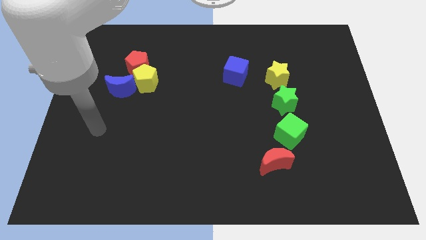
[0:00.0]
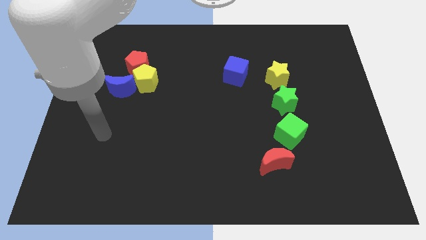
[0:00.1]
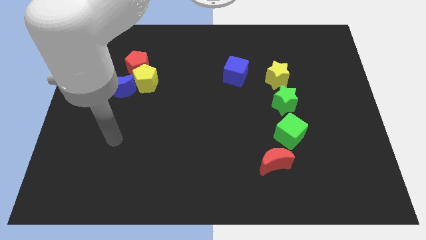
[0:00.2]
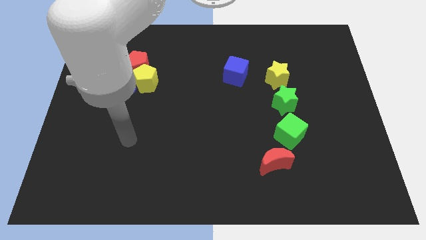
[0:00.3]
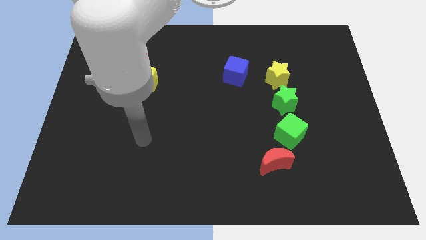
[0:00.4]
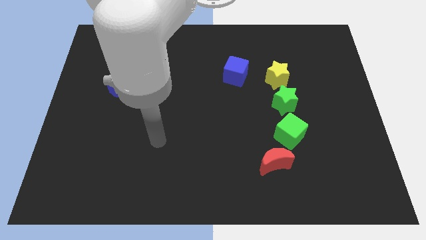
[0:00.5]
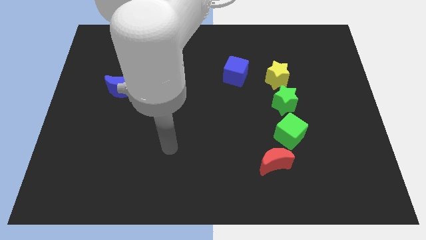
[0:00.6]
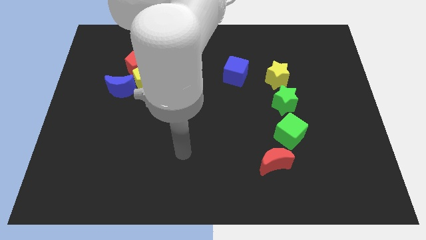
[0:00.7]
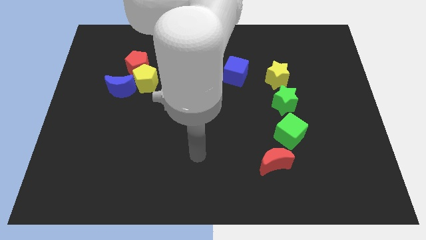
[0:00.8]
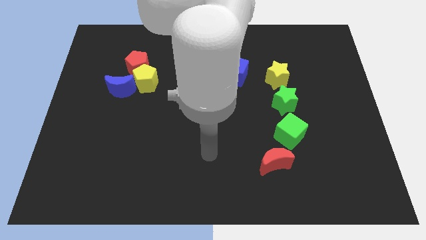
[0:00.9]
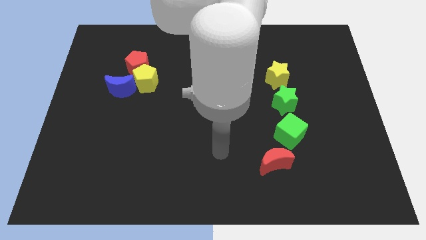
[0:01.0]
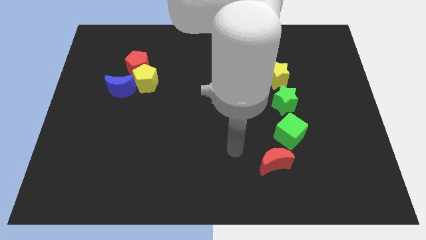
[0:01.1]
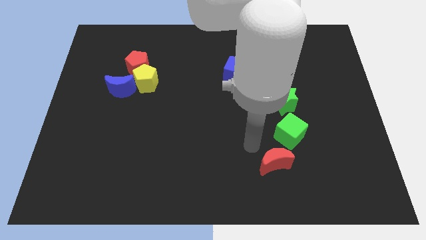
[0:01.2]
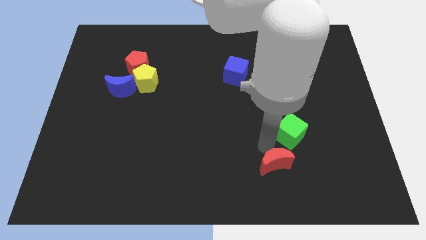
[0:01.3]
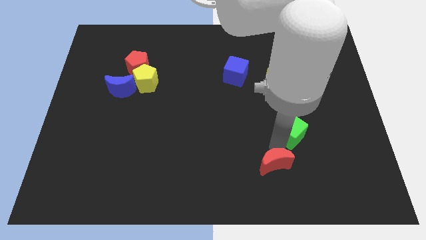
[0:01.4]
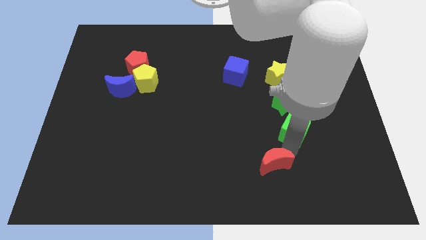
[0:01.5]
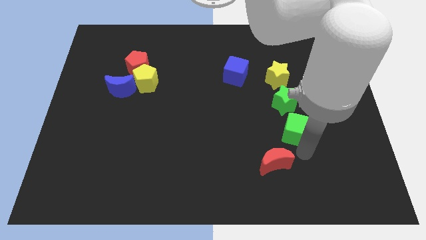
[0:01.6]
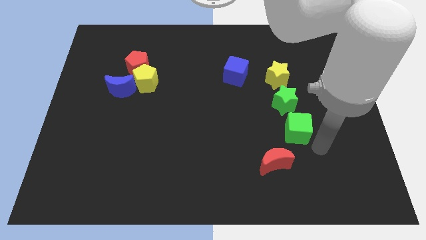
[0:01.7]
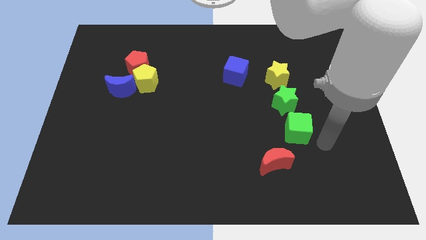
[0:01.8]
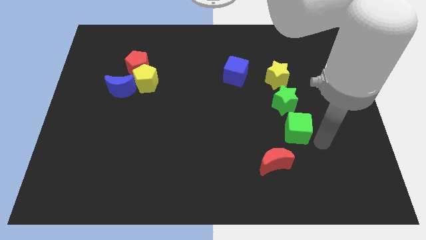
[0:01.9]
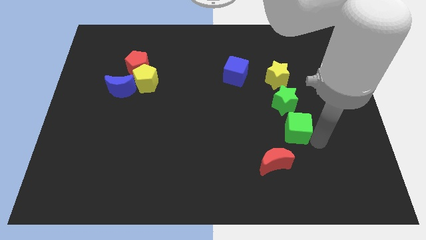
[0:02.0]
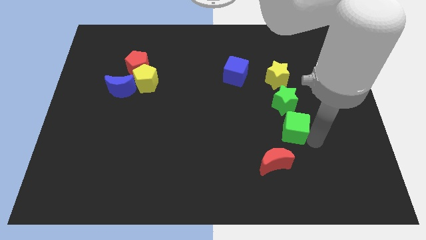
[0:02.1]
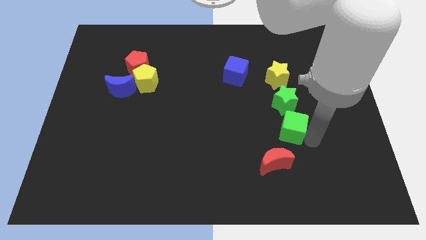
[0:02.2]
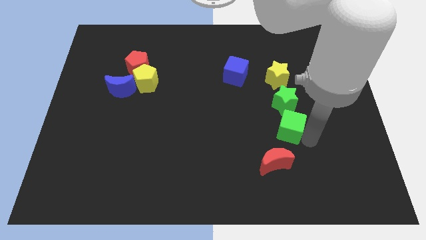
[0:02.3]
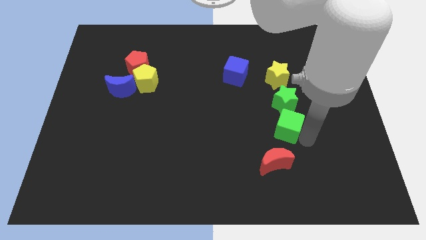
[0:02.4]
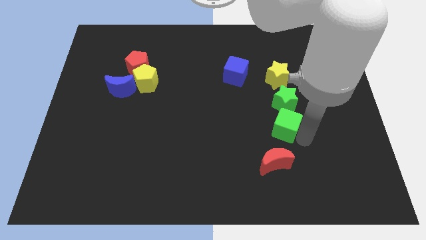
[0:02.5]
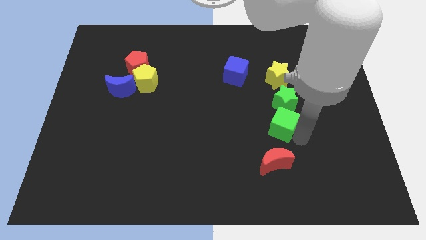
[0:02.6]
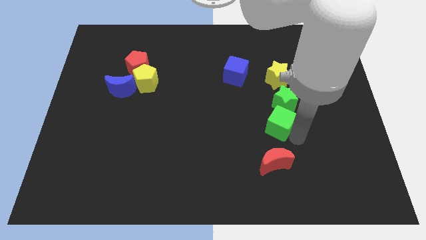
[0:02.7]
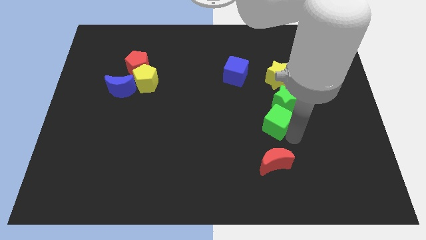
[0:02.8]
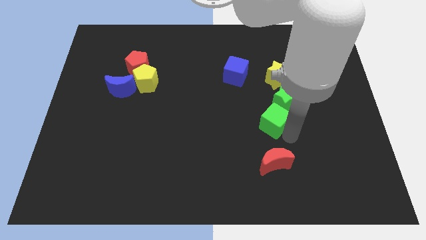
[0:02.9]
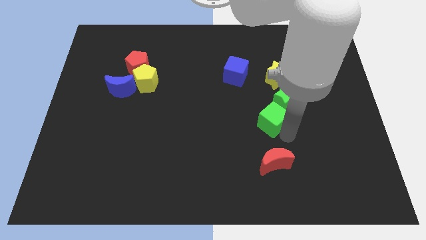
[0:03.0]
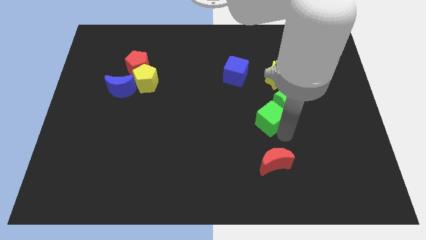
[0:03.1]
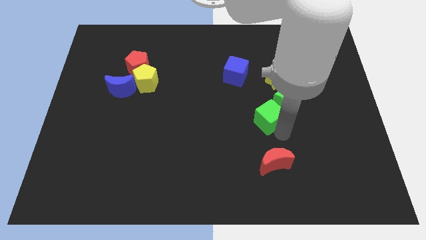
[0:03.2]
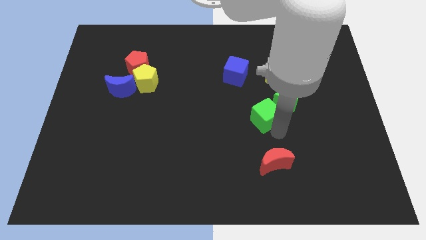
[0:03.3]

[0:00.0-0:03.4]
slightly slide the green cube diagonally upwards and left

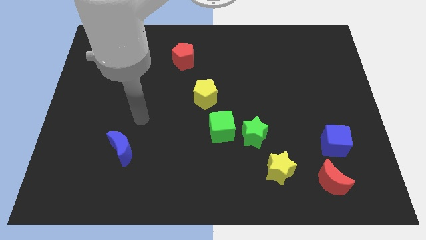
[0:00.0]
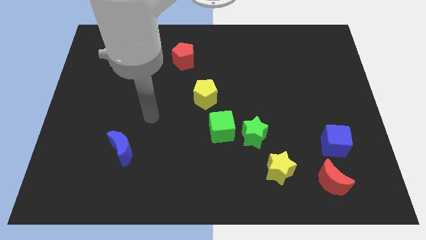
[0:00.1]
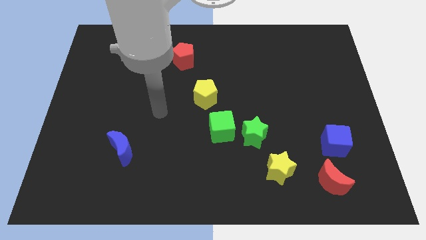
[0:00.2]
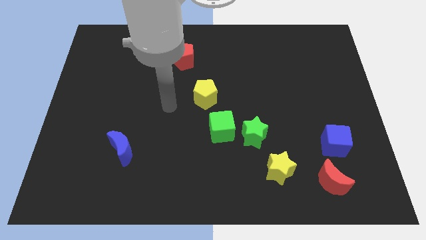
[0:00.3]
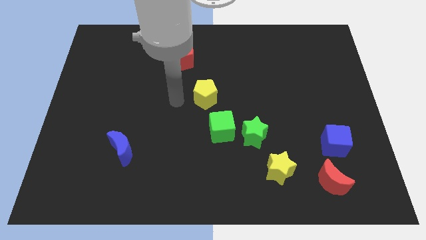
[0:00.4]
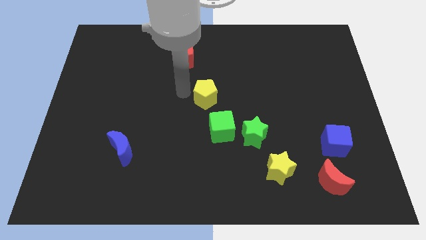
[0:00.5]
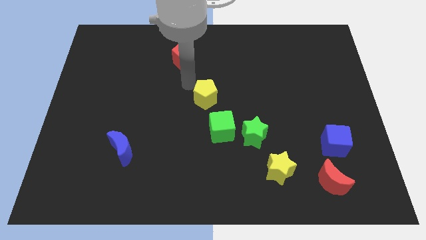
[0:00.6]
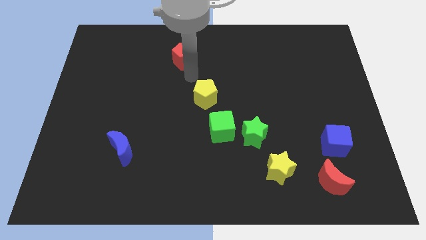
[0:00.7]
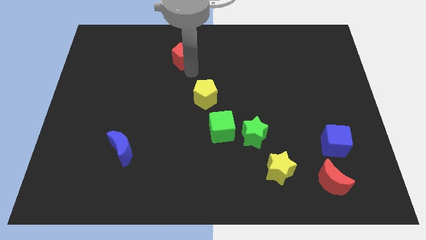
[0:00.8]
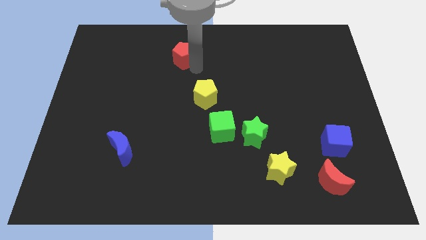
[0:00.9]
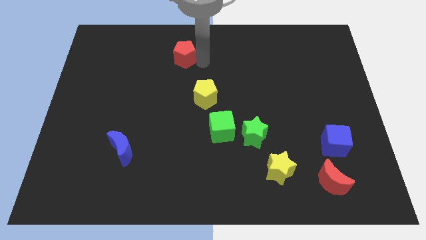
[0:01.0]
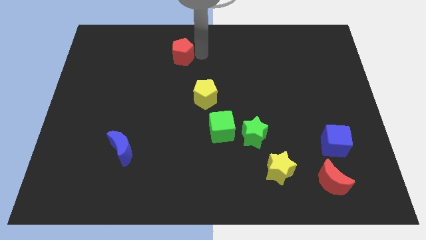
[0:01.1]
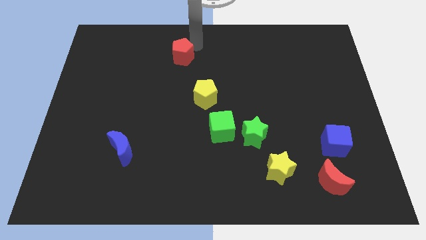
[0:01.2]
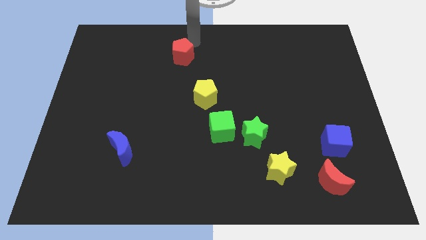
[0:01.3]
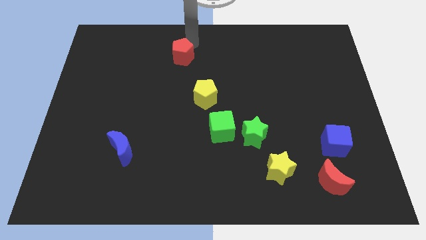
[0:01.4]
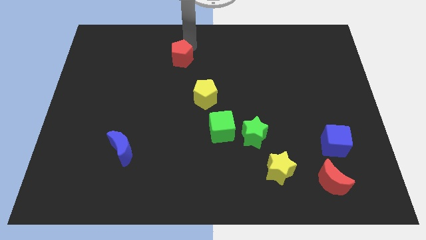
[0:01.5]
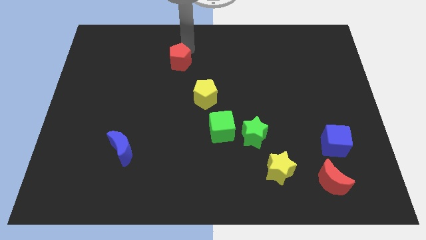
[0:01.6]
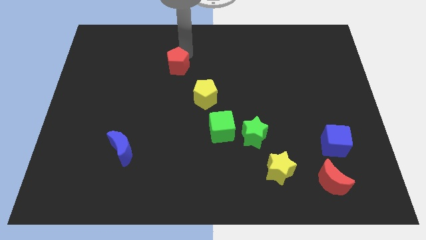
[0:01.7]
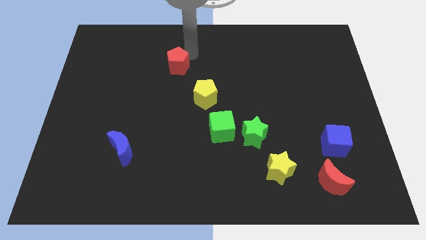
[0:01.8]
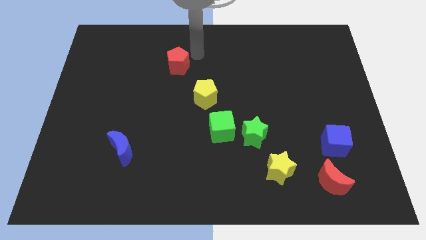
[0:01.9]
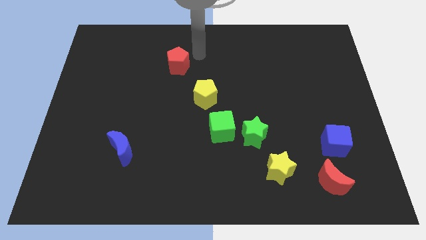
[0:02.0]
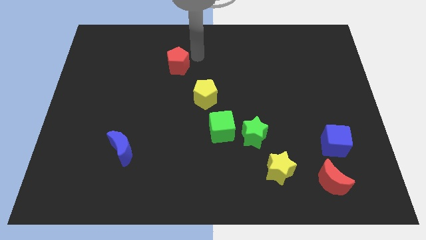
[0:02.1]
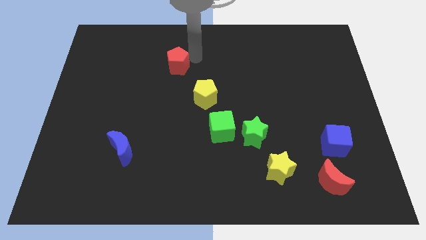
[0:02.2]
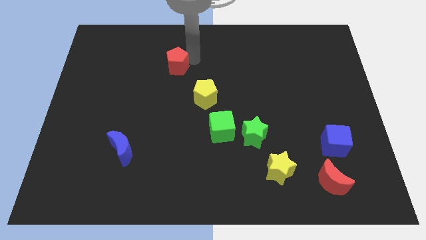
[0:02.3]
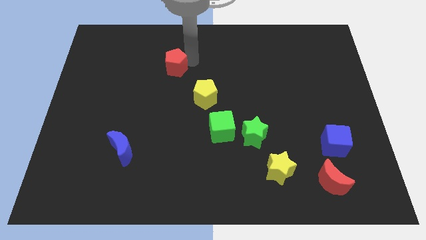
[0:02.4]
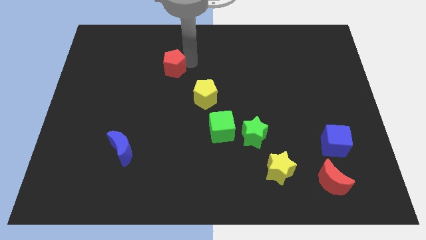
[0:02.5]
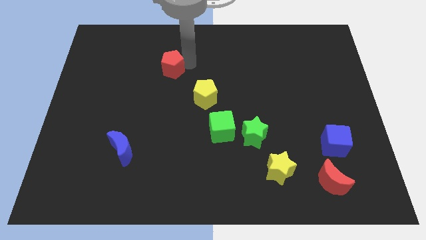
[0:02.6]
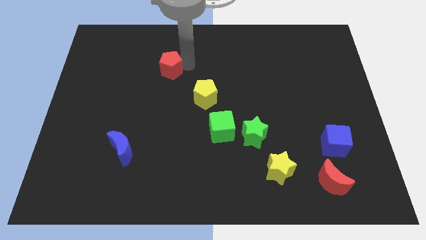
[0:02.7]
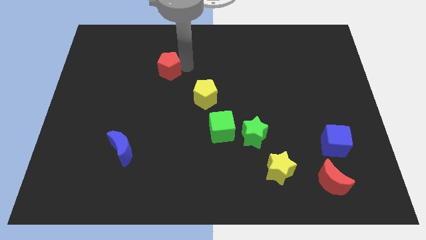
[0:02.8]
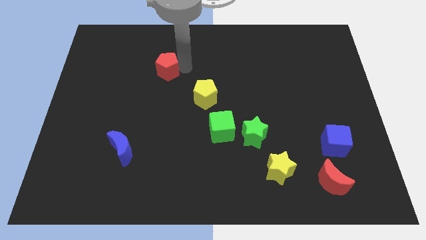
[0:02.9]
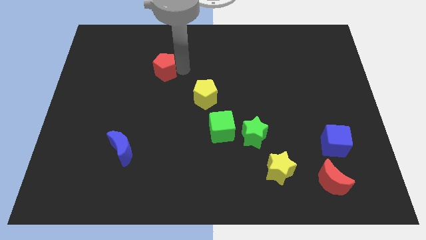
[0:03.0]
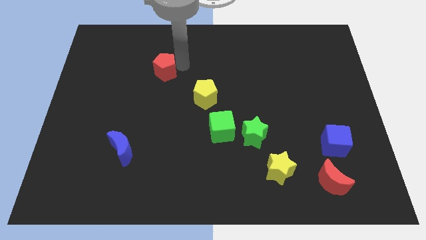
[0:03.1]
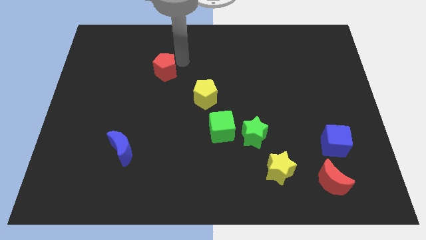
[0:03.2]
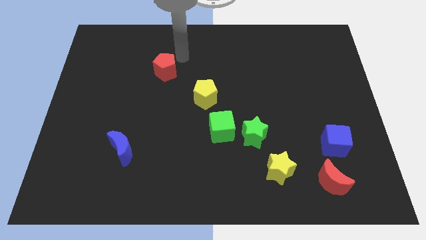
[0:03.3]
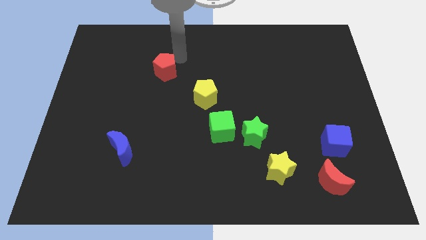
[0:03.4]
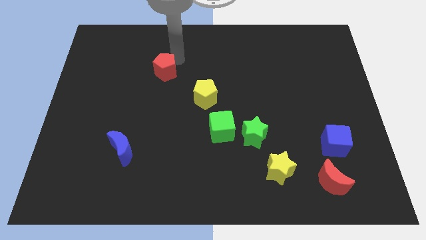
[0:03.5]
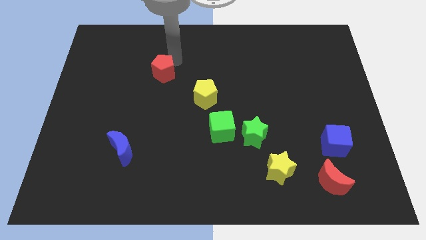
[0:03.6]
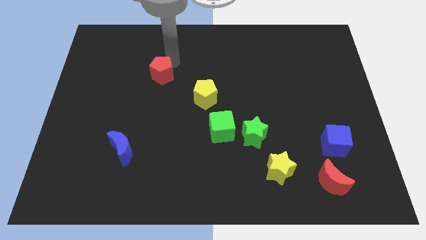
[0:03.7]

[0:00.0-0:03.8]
slightly push the red pentagon down and then left

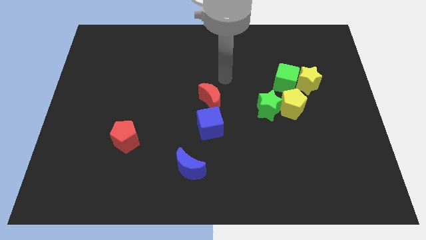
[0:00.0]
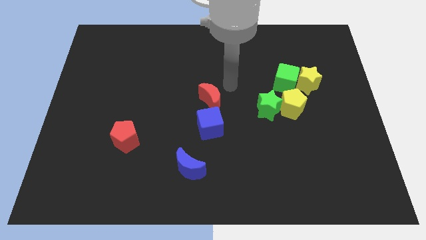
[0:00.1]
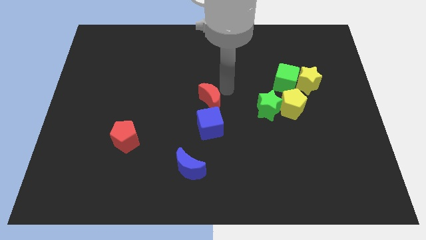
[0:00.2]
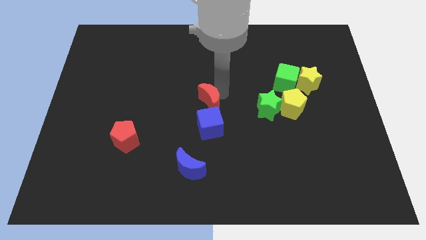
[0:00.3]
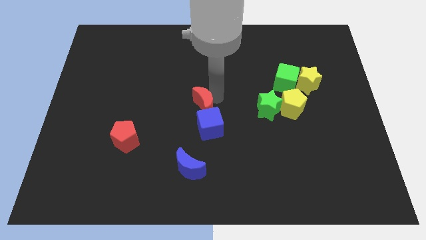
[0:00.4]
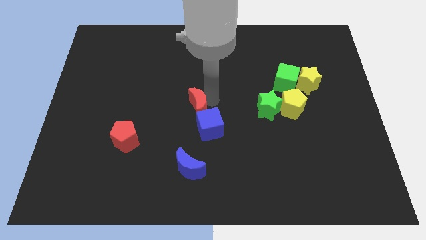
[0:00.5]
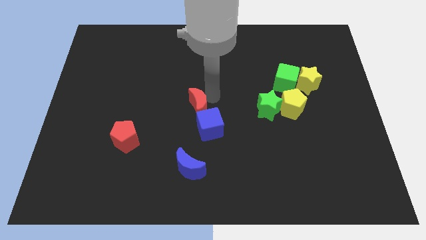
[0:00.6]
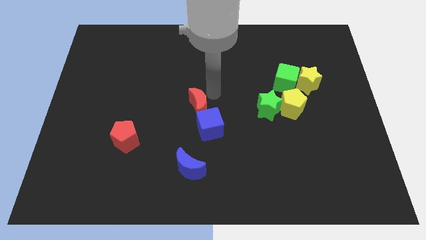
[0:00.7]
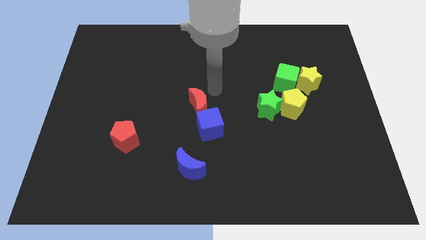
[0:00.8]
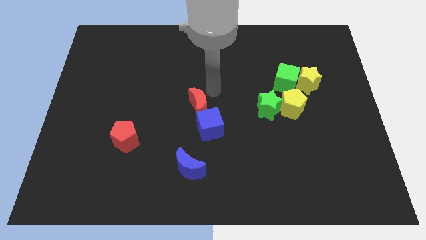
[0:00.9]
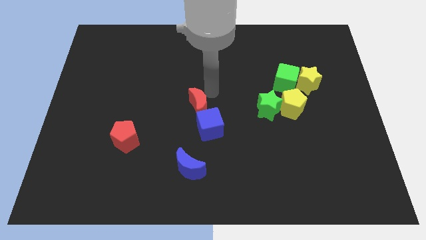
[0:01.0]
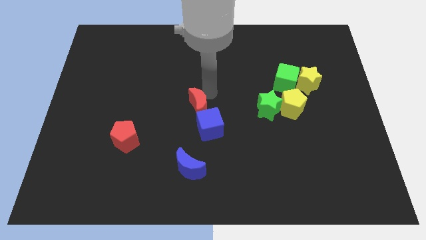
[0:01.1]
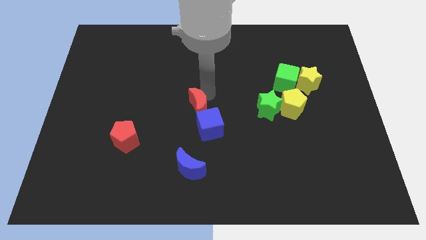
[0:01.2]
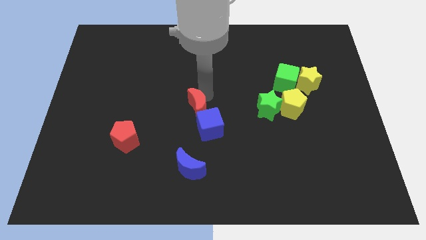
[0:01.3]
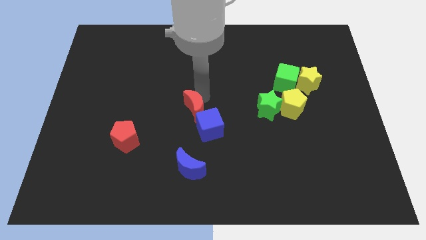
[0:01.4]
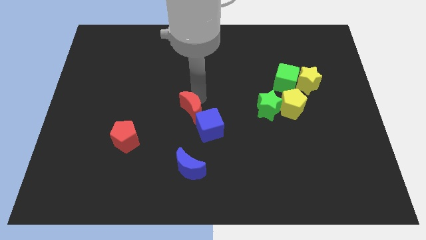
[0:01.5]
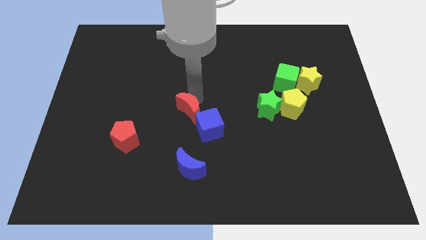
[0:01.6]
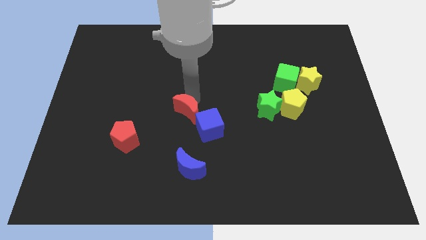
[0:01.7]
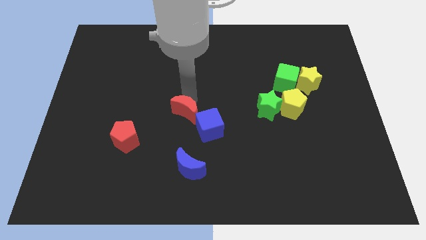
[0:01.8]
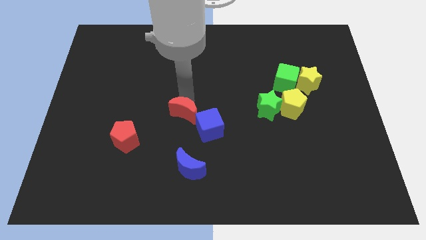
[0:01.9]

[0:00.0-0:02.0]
slide the red moon downwards and left diagonally a little
